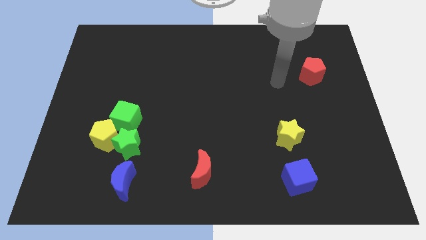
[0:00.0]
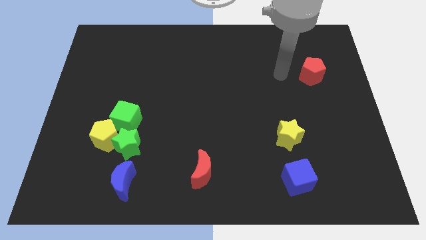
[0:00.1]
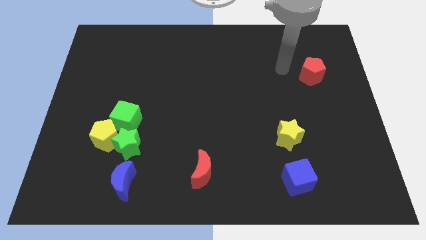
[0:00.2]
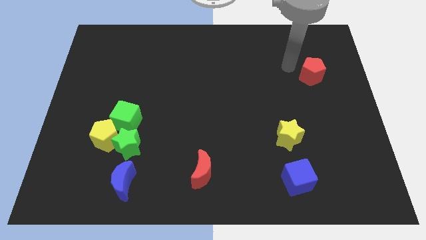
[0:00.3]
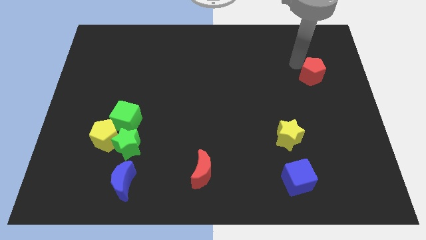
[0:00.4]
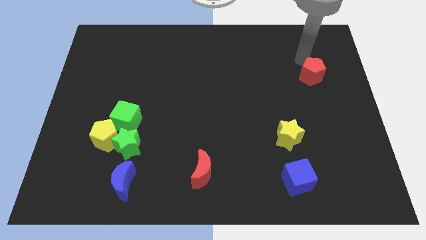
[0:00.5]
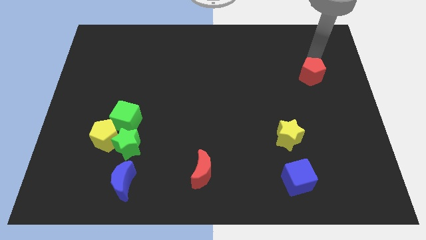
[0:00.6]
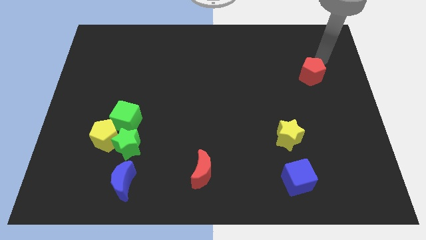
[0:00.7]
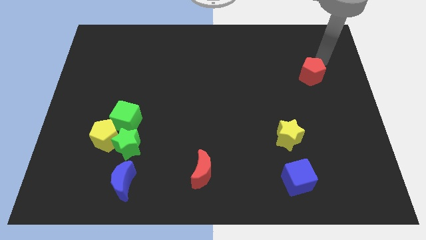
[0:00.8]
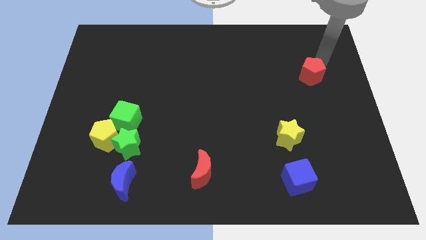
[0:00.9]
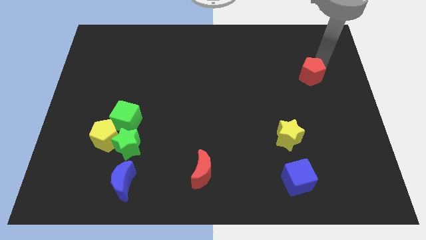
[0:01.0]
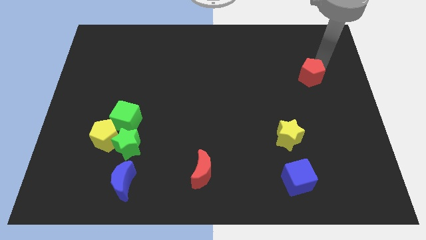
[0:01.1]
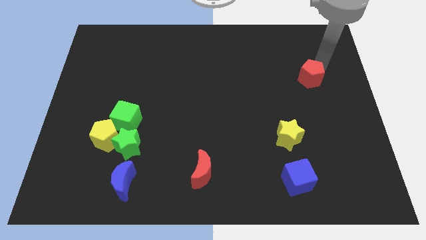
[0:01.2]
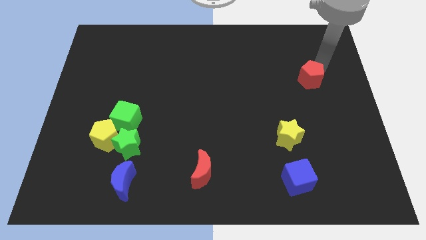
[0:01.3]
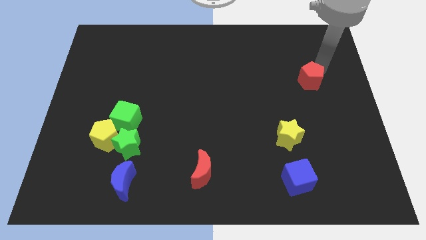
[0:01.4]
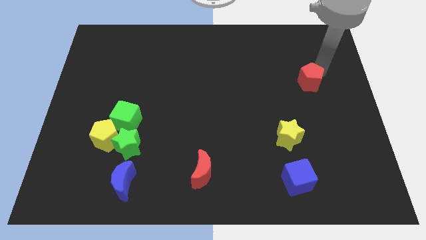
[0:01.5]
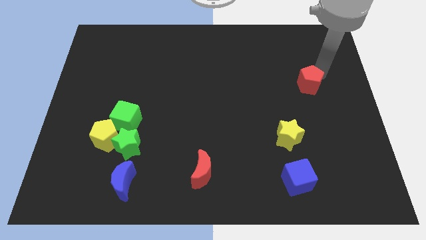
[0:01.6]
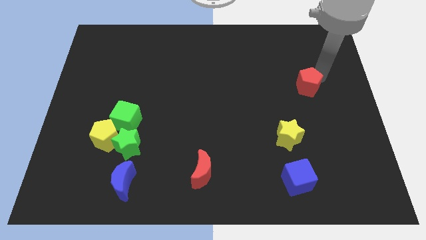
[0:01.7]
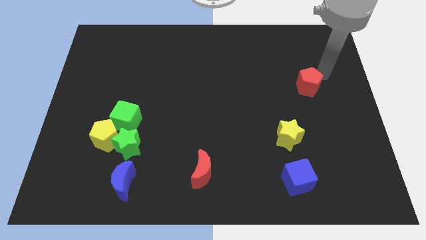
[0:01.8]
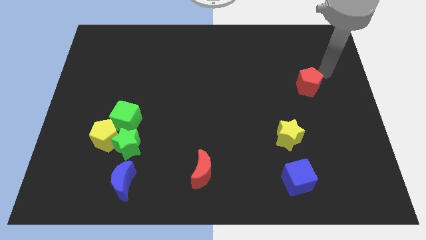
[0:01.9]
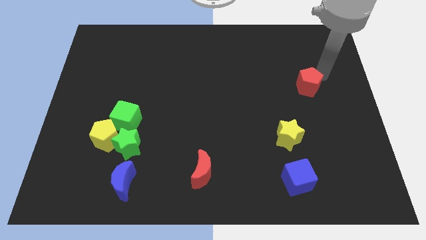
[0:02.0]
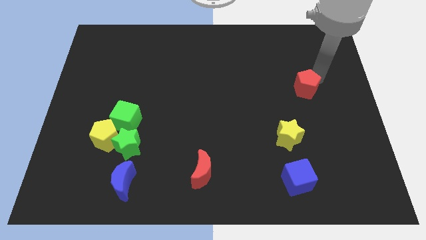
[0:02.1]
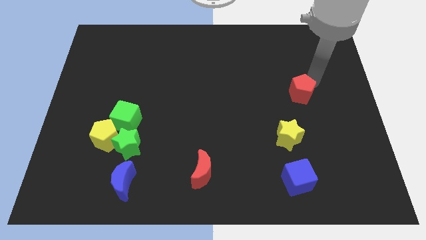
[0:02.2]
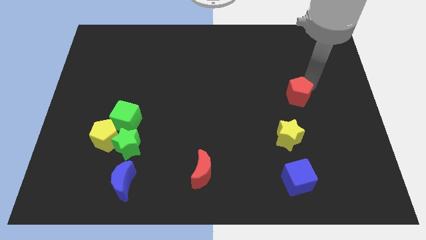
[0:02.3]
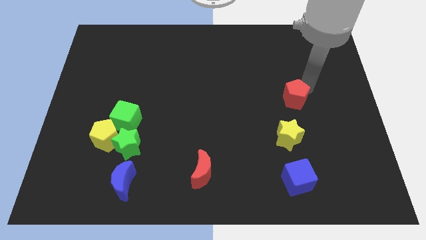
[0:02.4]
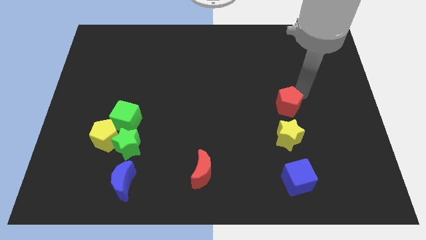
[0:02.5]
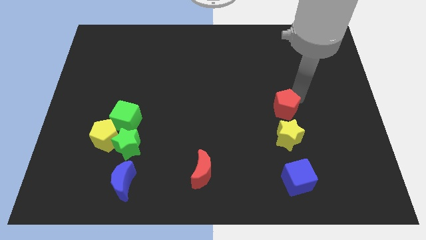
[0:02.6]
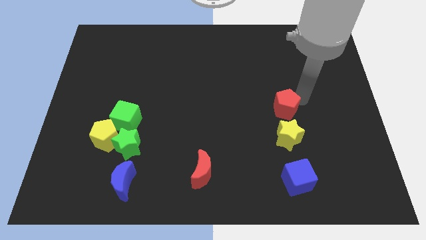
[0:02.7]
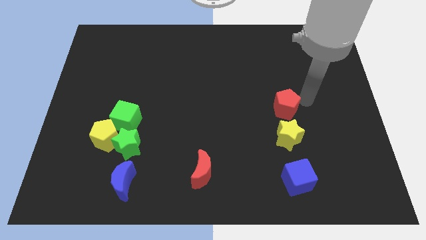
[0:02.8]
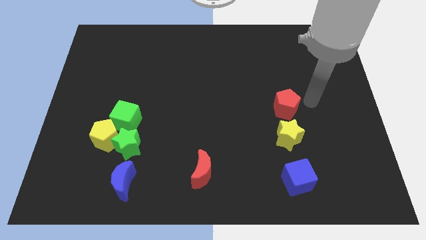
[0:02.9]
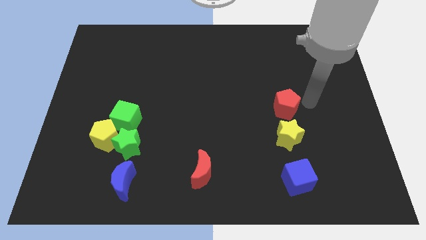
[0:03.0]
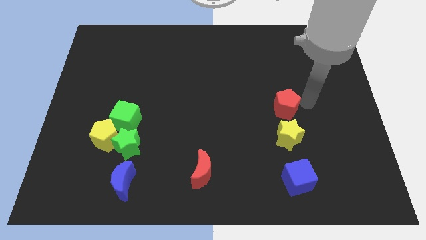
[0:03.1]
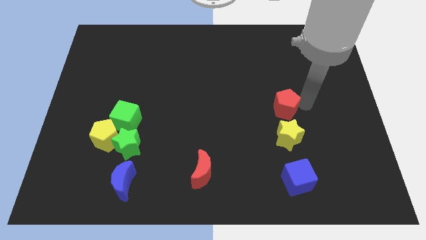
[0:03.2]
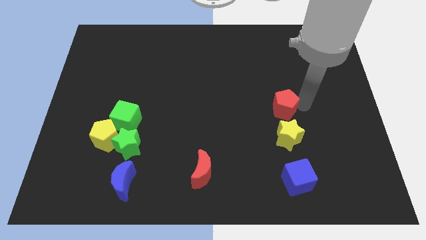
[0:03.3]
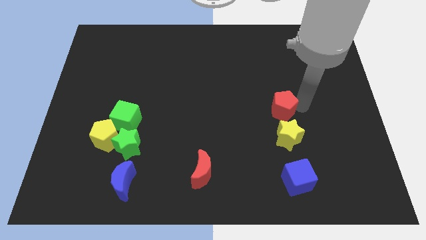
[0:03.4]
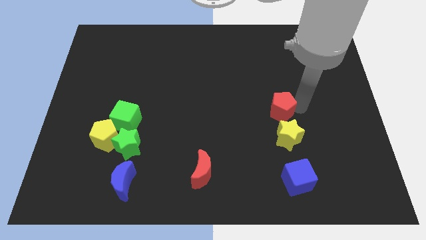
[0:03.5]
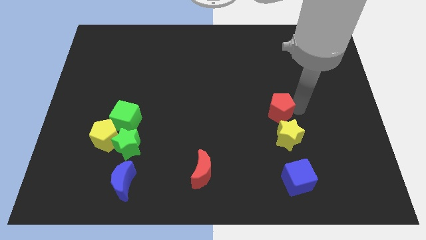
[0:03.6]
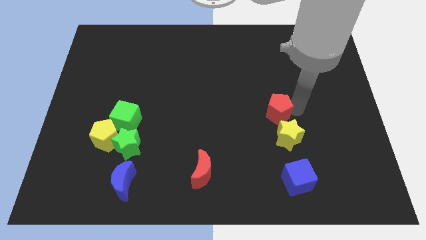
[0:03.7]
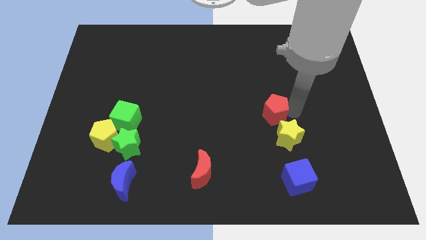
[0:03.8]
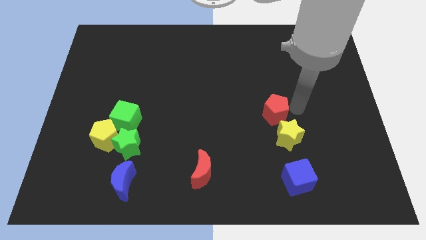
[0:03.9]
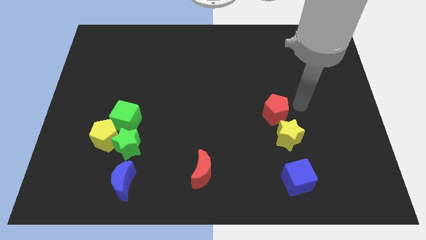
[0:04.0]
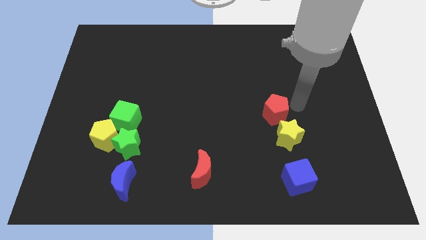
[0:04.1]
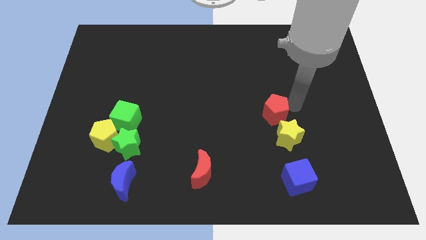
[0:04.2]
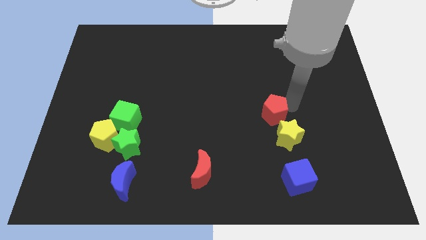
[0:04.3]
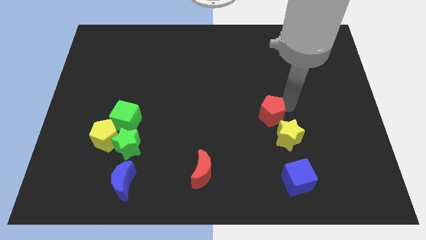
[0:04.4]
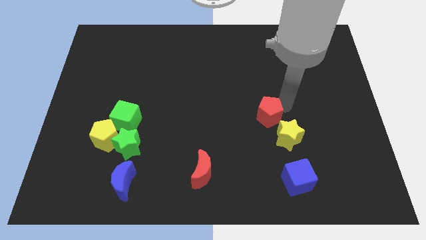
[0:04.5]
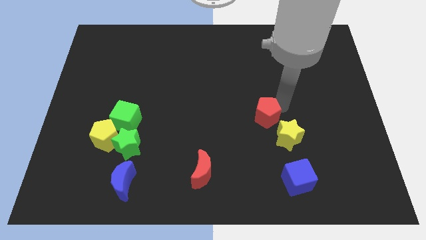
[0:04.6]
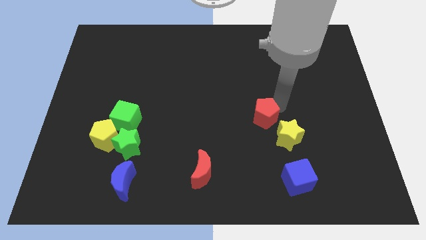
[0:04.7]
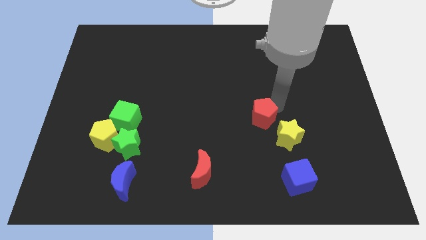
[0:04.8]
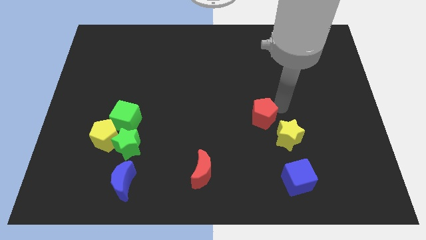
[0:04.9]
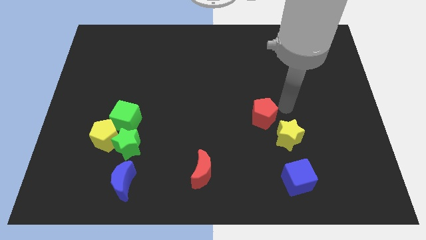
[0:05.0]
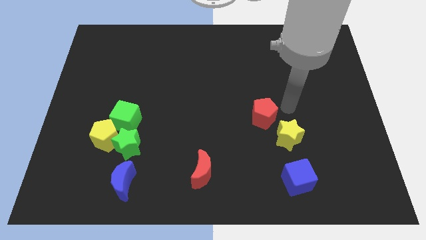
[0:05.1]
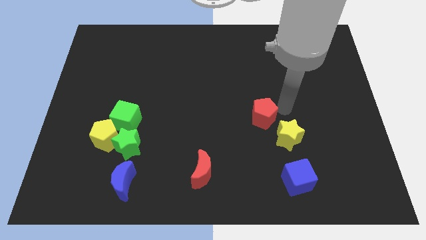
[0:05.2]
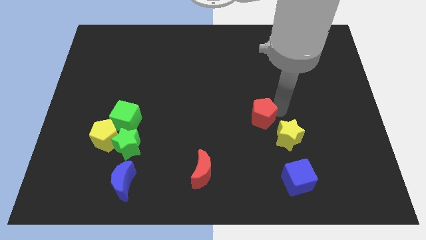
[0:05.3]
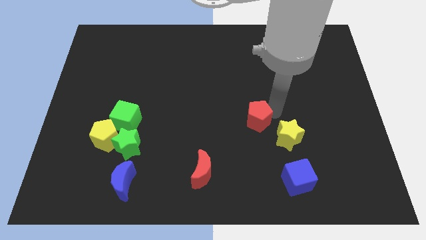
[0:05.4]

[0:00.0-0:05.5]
push the red pentagon diagonally down and left

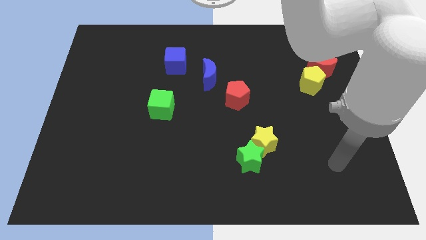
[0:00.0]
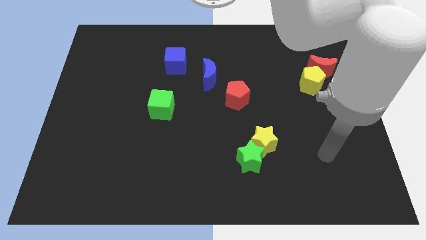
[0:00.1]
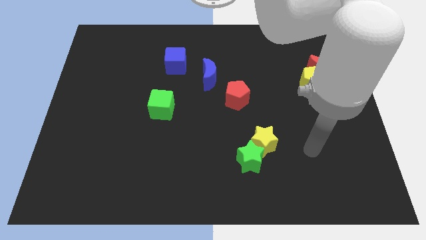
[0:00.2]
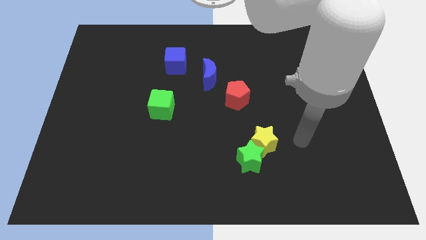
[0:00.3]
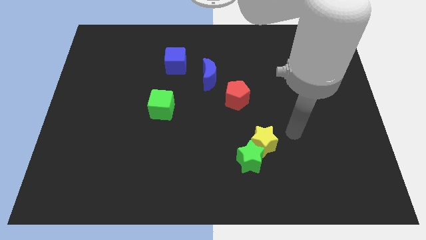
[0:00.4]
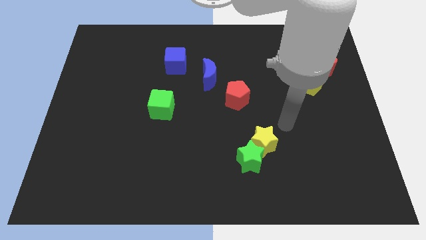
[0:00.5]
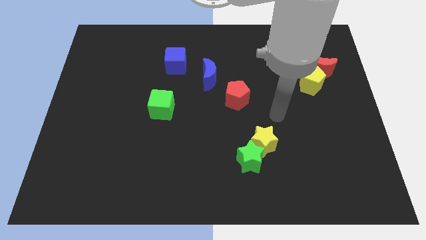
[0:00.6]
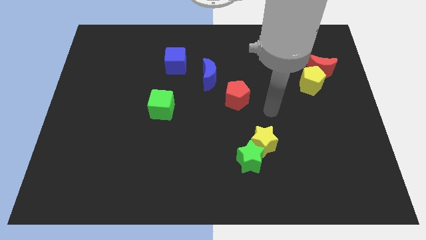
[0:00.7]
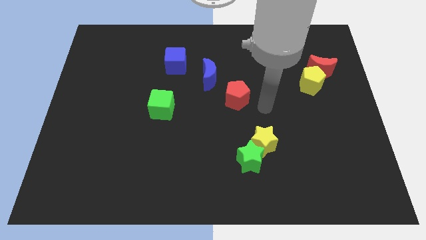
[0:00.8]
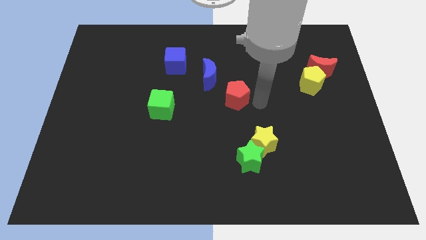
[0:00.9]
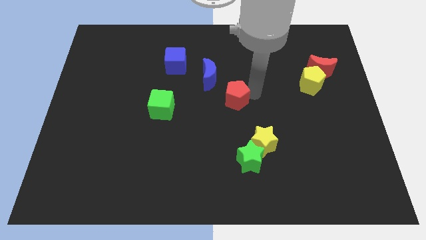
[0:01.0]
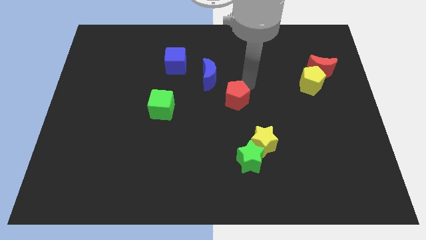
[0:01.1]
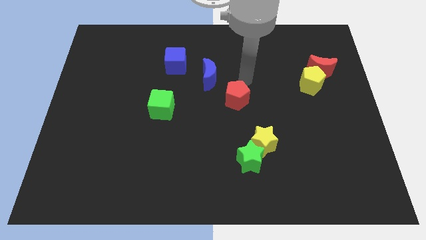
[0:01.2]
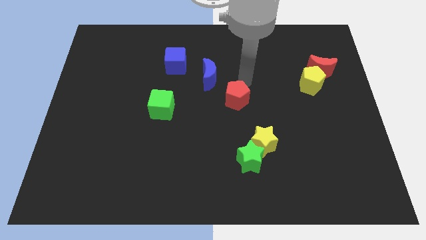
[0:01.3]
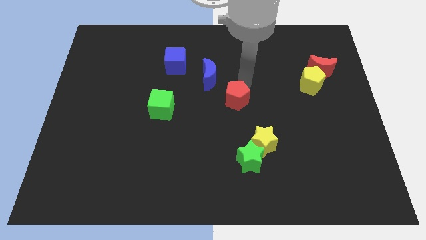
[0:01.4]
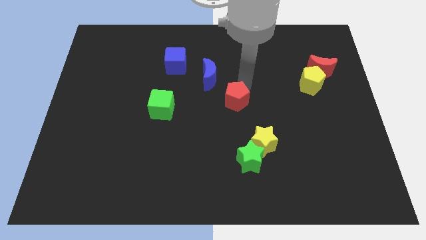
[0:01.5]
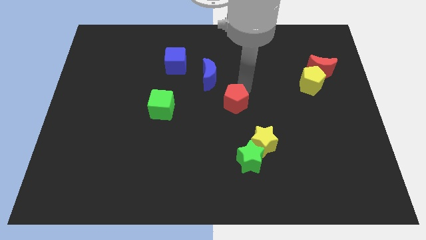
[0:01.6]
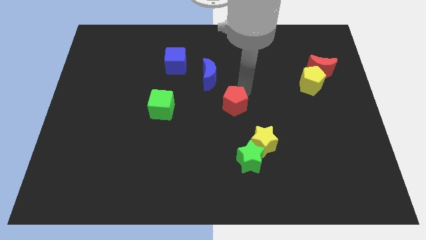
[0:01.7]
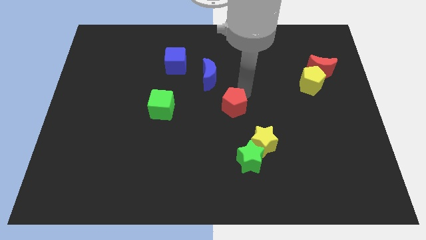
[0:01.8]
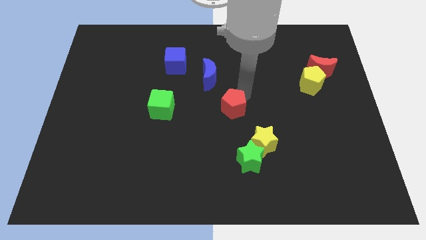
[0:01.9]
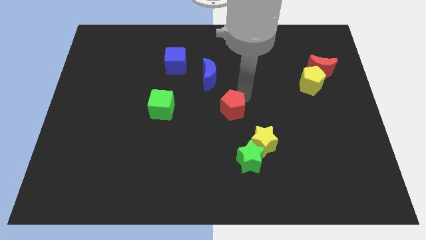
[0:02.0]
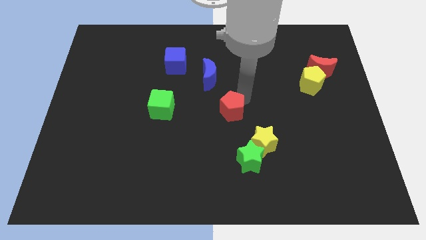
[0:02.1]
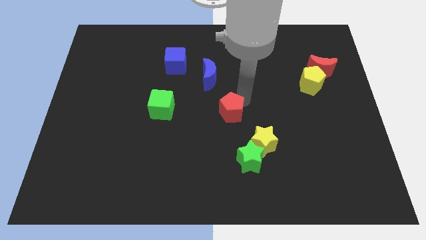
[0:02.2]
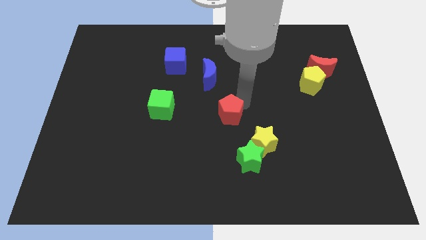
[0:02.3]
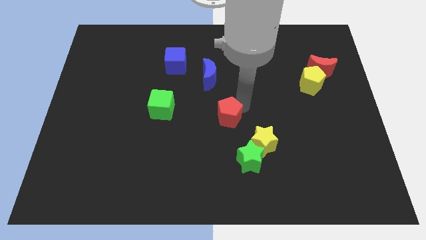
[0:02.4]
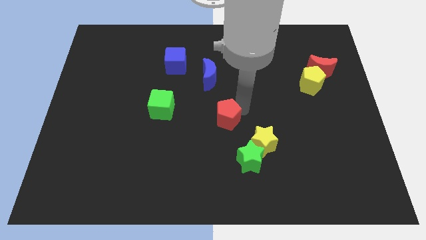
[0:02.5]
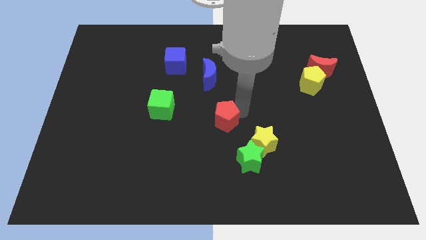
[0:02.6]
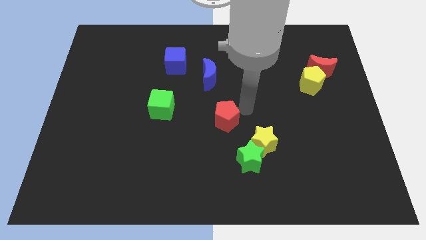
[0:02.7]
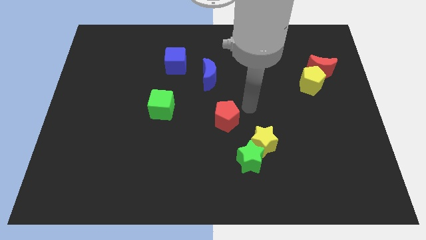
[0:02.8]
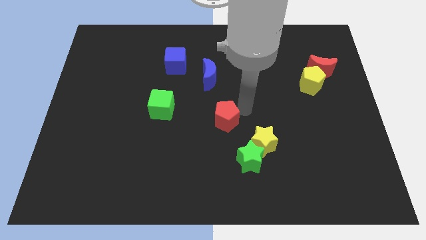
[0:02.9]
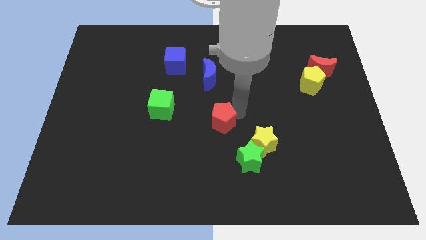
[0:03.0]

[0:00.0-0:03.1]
push the red pentagon diagonally downwards and left slightly
